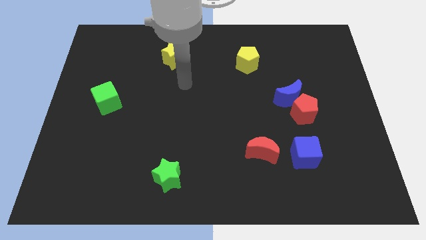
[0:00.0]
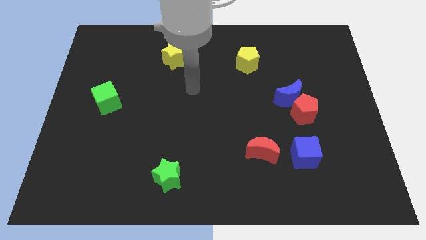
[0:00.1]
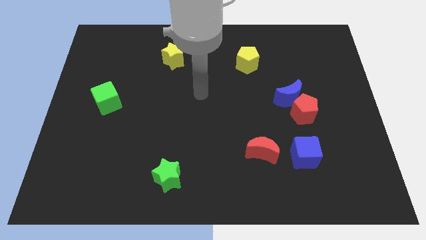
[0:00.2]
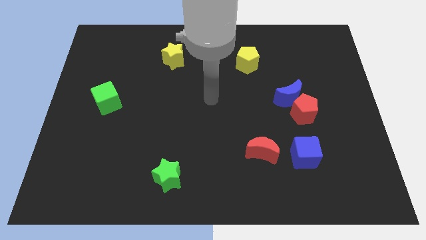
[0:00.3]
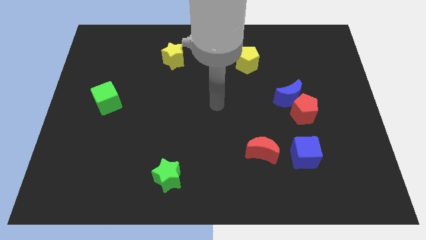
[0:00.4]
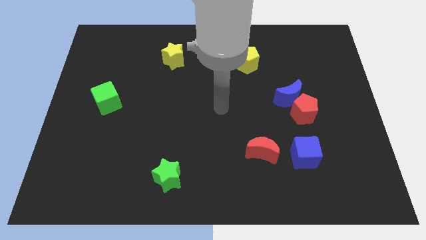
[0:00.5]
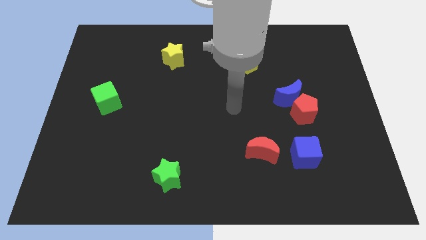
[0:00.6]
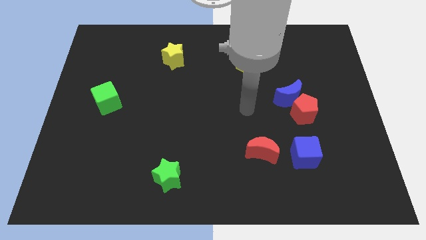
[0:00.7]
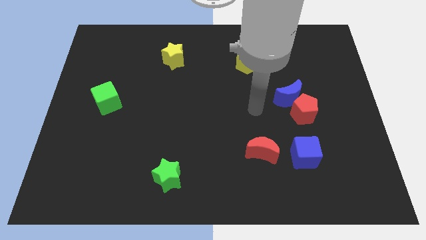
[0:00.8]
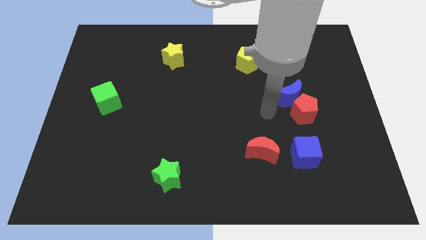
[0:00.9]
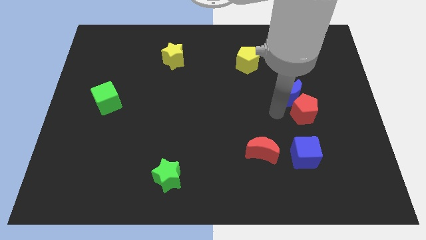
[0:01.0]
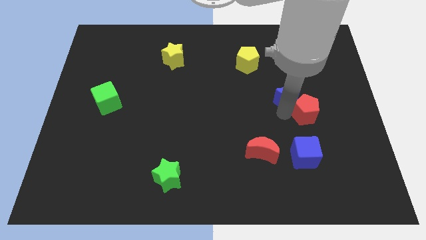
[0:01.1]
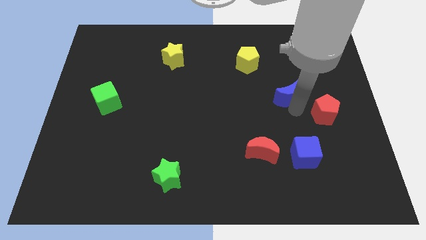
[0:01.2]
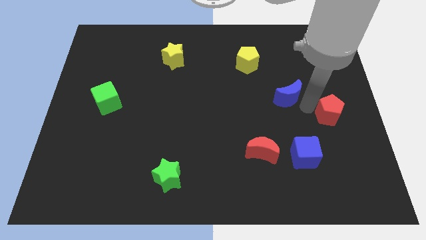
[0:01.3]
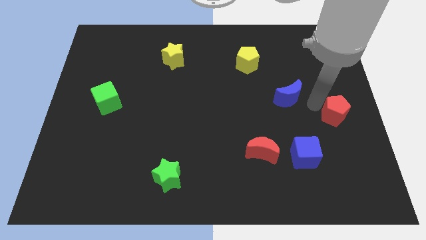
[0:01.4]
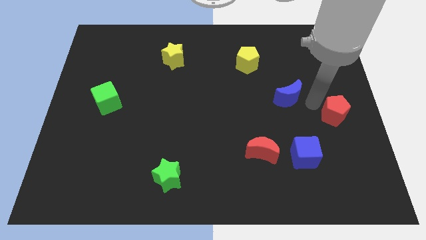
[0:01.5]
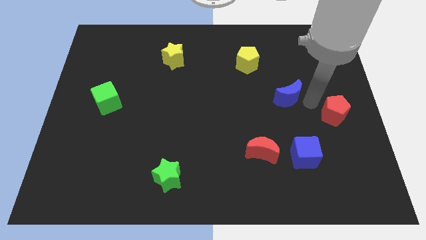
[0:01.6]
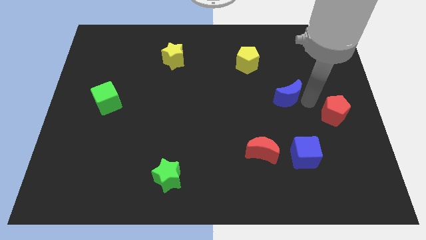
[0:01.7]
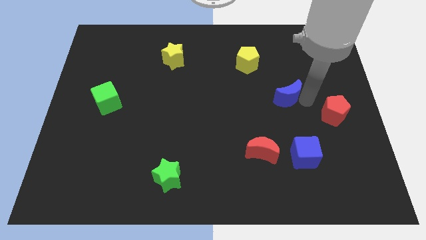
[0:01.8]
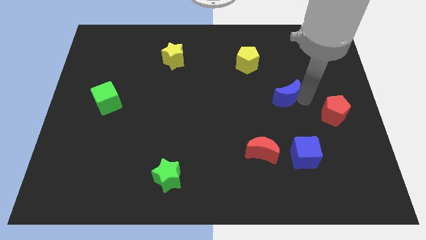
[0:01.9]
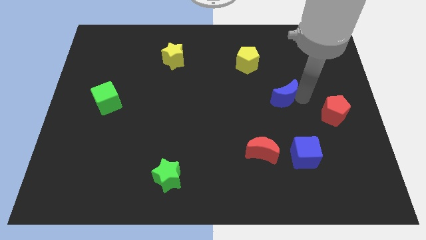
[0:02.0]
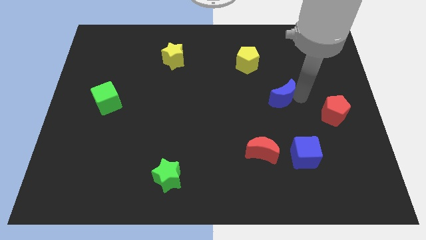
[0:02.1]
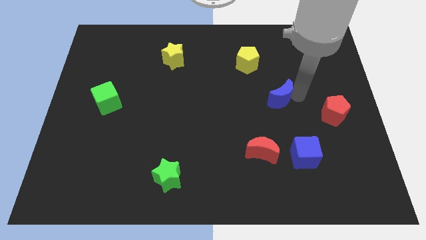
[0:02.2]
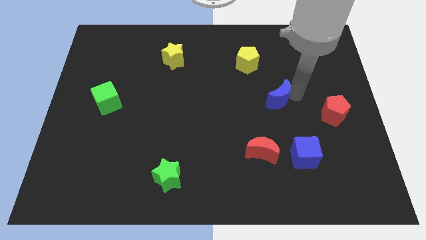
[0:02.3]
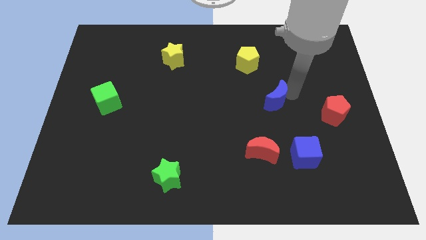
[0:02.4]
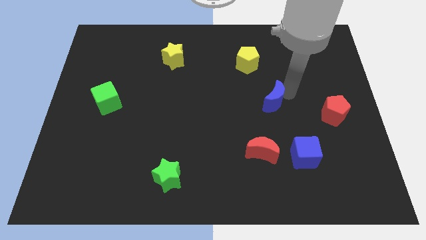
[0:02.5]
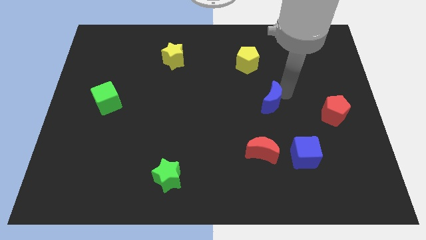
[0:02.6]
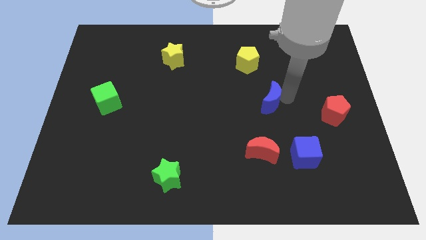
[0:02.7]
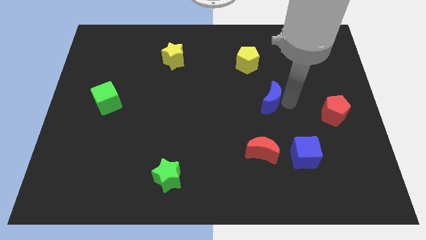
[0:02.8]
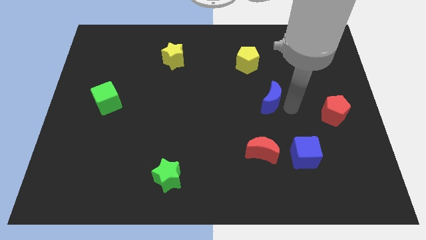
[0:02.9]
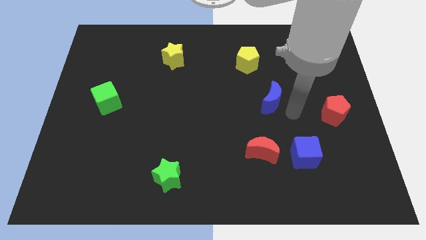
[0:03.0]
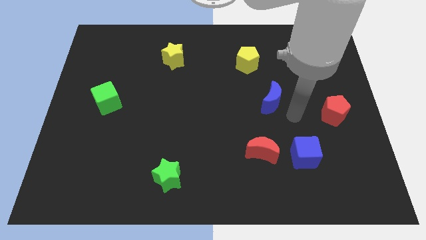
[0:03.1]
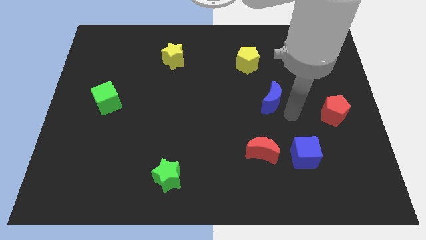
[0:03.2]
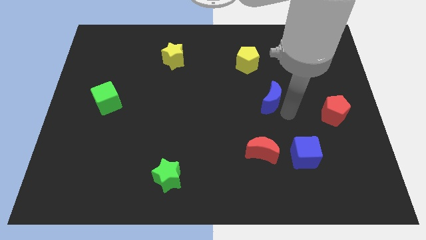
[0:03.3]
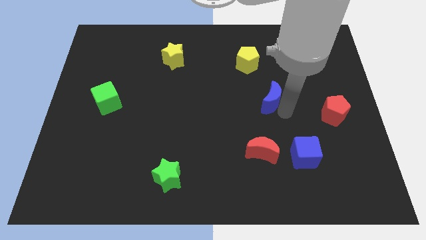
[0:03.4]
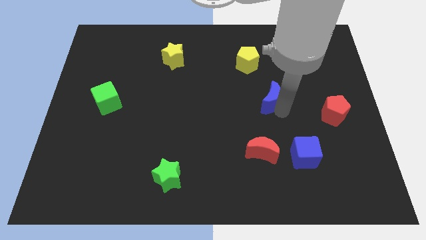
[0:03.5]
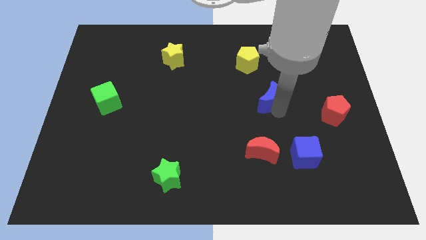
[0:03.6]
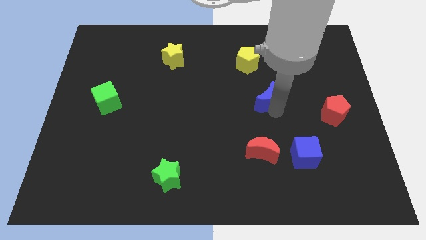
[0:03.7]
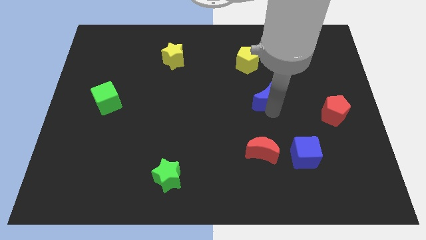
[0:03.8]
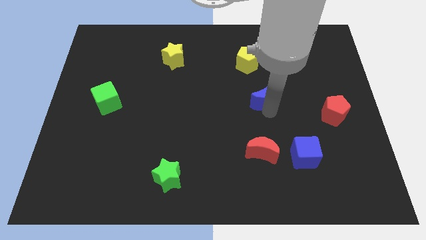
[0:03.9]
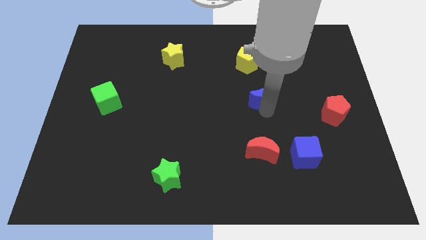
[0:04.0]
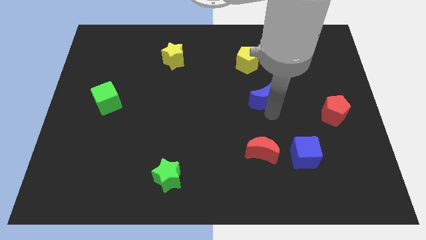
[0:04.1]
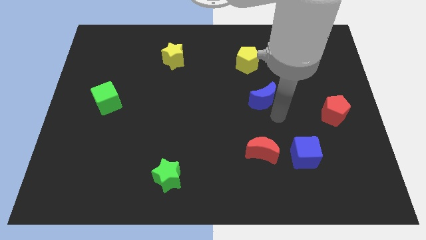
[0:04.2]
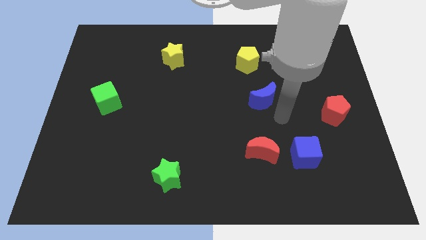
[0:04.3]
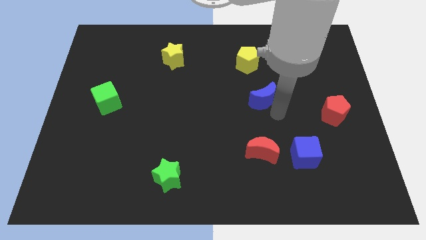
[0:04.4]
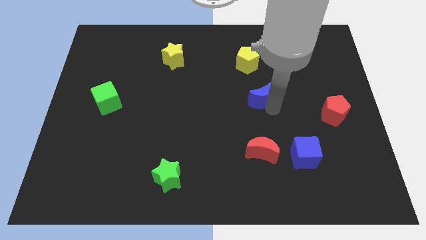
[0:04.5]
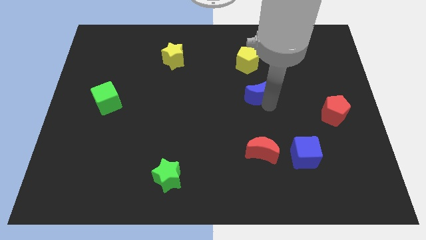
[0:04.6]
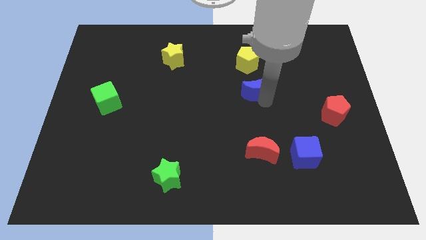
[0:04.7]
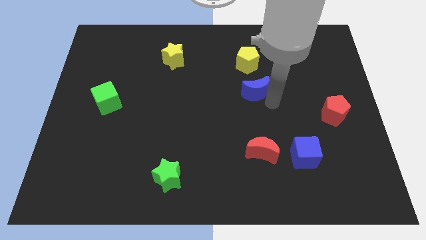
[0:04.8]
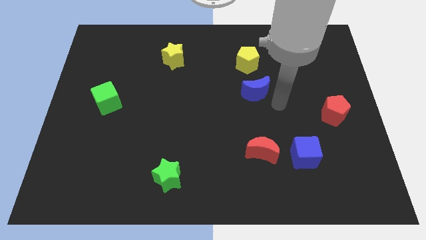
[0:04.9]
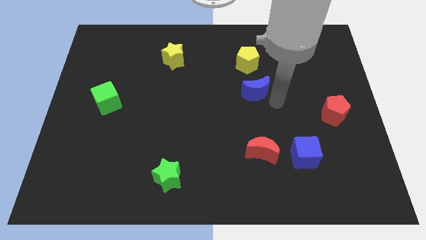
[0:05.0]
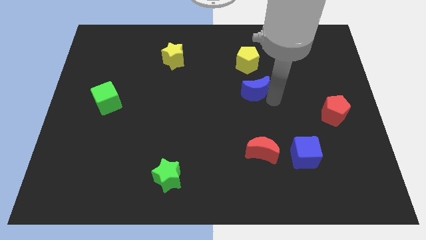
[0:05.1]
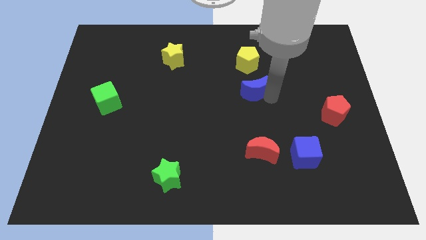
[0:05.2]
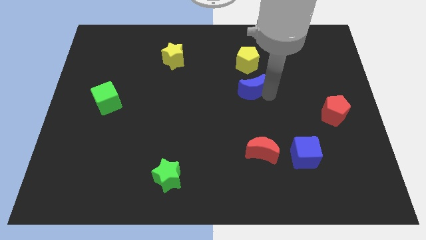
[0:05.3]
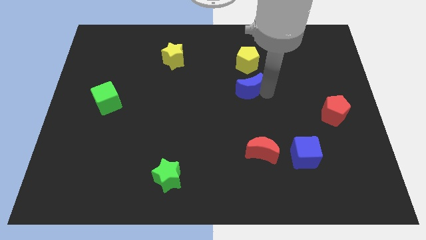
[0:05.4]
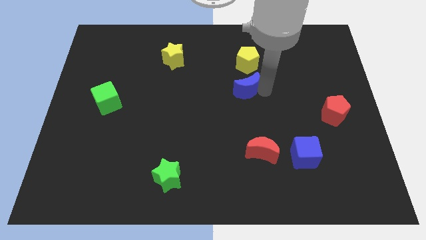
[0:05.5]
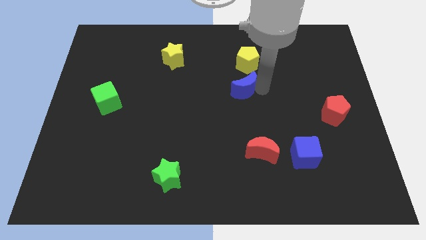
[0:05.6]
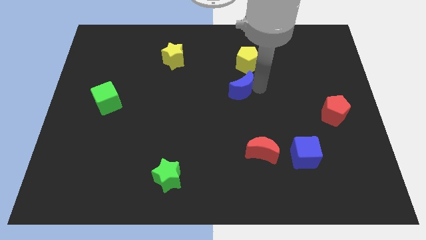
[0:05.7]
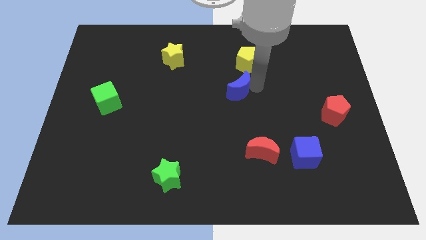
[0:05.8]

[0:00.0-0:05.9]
push the blue moon diagonally down and to the left of the yellow pentagon
